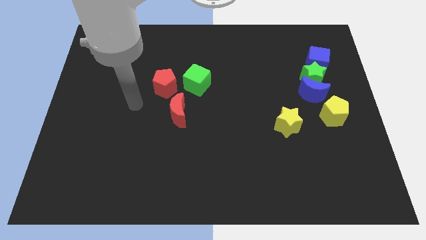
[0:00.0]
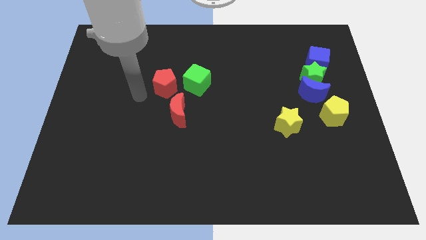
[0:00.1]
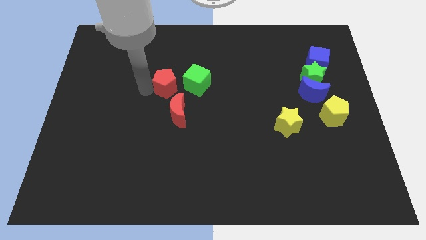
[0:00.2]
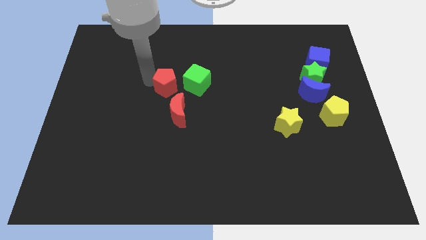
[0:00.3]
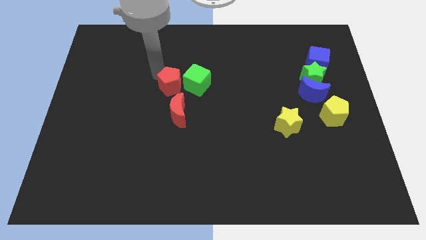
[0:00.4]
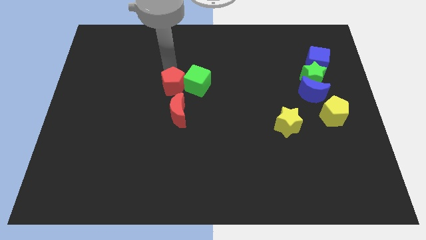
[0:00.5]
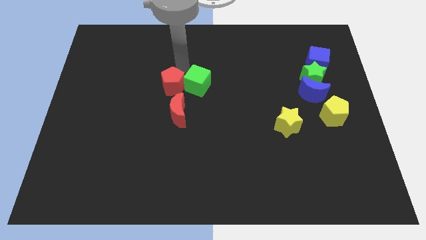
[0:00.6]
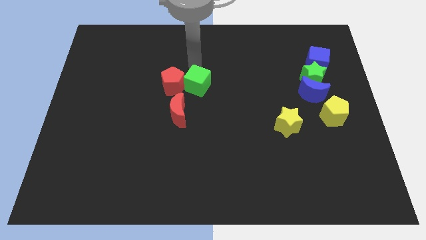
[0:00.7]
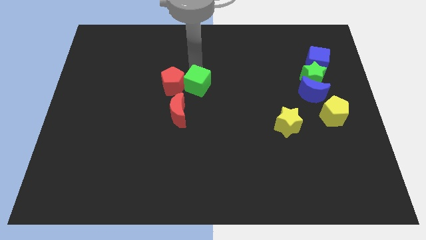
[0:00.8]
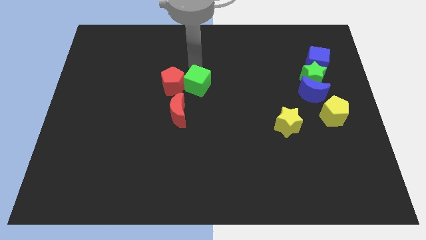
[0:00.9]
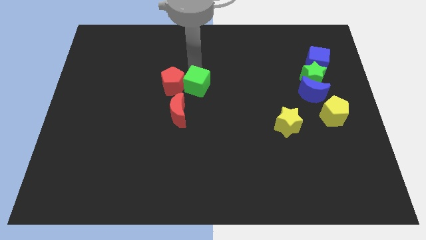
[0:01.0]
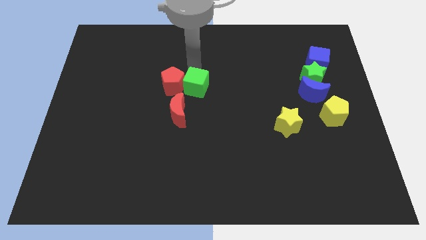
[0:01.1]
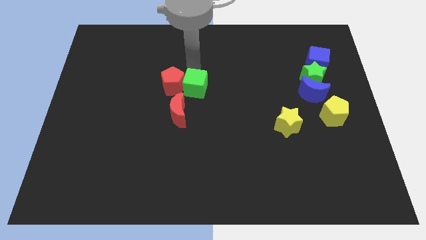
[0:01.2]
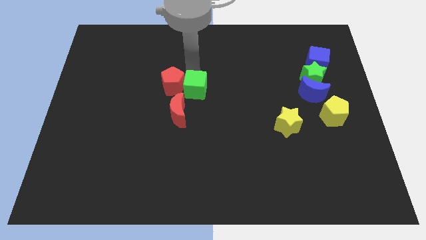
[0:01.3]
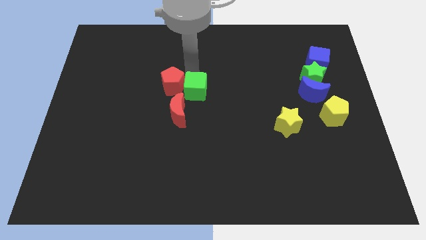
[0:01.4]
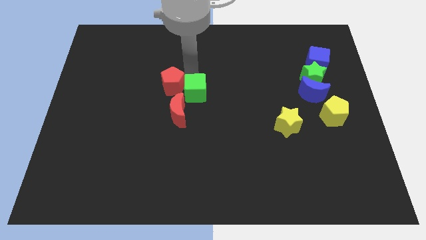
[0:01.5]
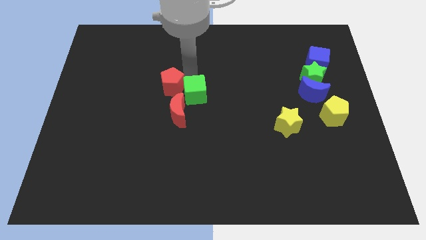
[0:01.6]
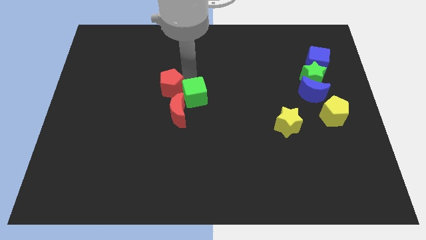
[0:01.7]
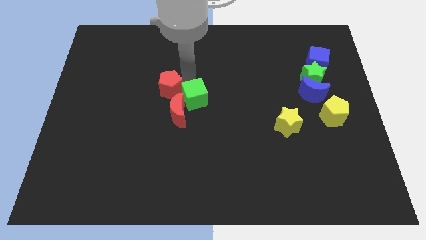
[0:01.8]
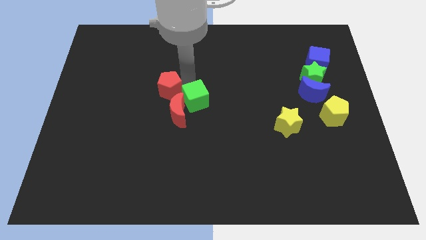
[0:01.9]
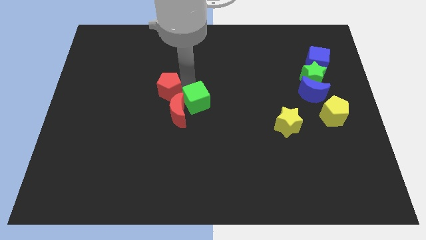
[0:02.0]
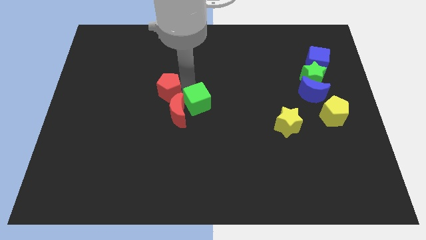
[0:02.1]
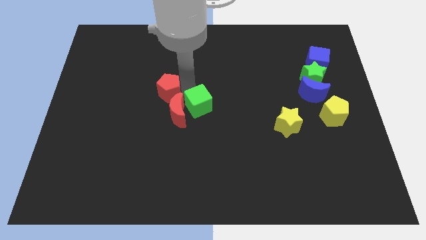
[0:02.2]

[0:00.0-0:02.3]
push the green cube a little down

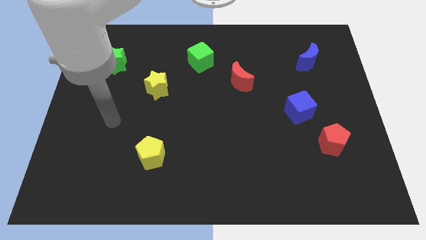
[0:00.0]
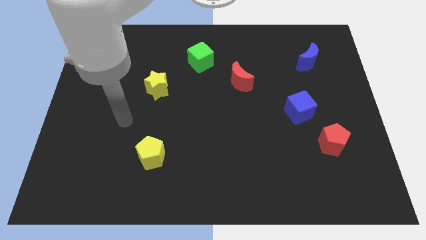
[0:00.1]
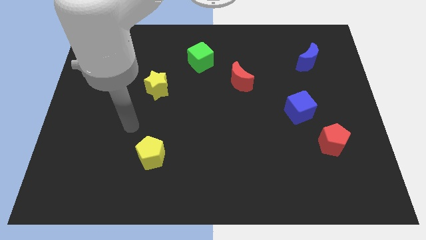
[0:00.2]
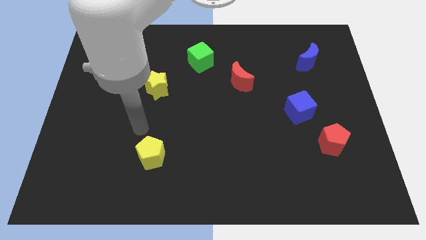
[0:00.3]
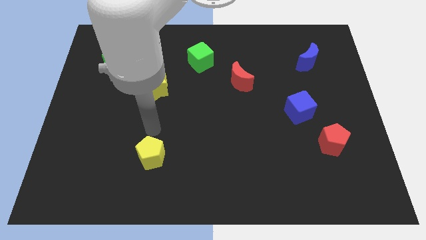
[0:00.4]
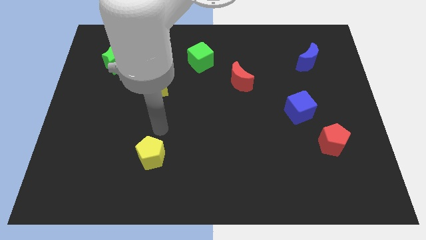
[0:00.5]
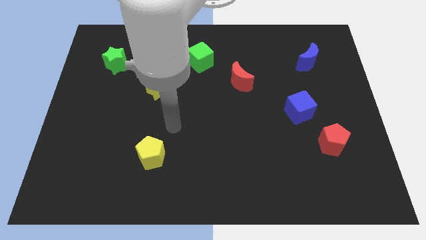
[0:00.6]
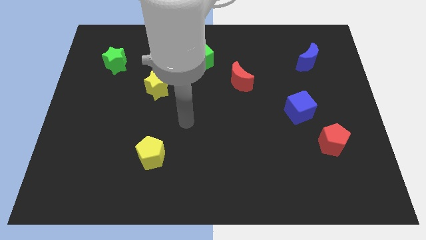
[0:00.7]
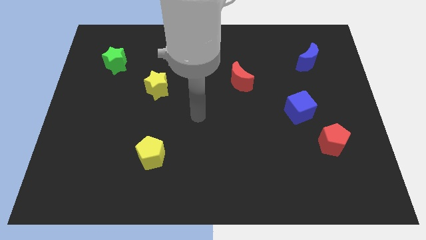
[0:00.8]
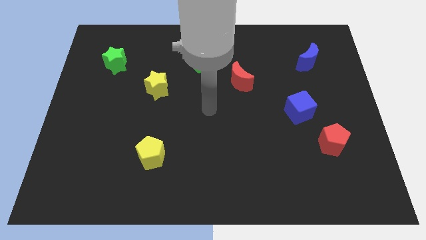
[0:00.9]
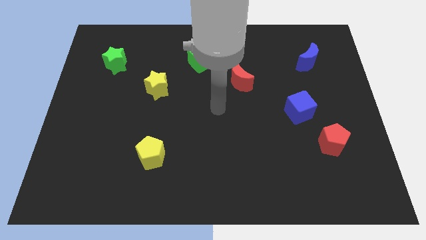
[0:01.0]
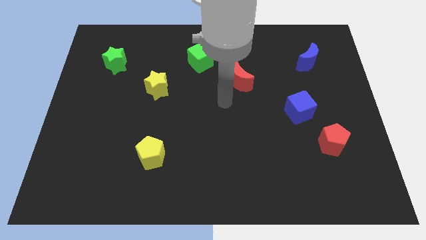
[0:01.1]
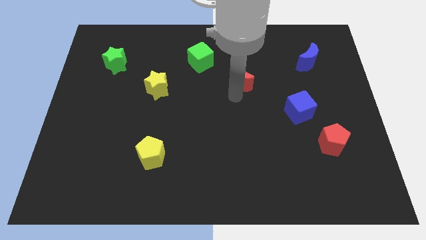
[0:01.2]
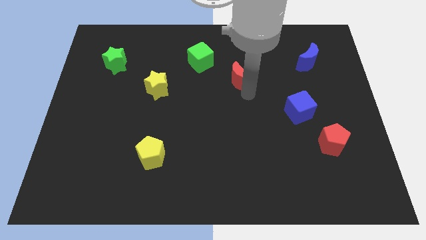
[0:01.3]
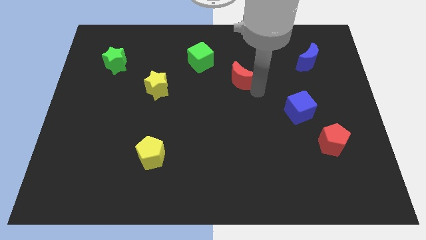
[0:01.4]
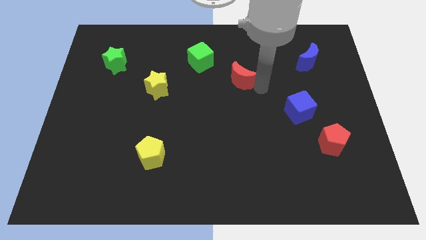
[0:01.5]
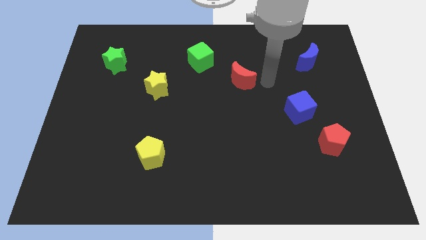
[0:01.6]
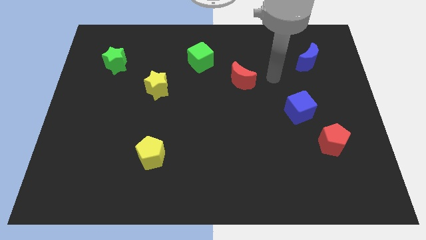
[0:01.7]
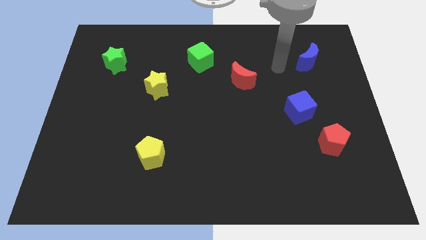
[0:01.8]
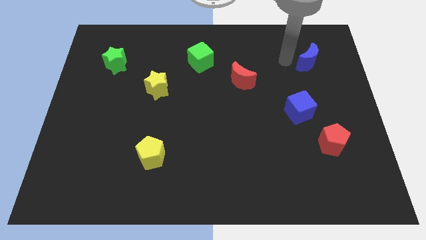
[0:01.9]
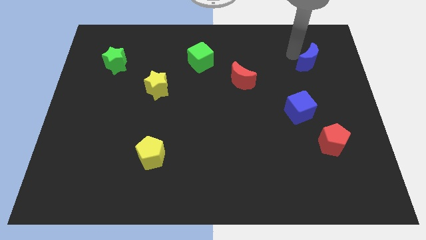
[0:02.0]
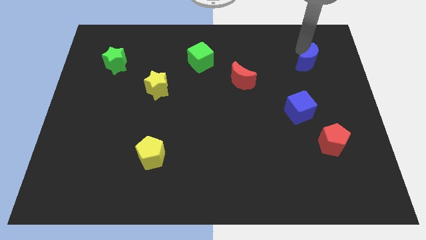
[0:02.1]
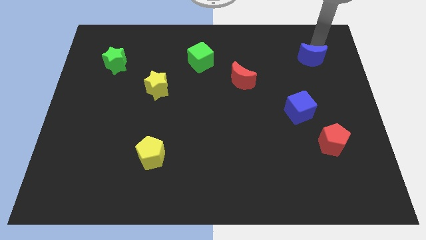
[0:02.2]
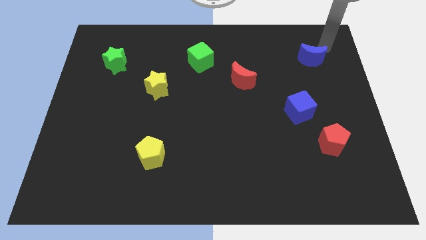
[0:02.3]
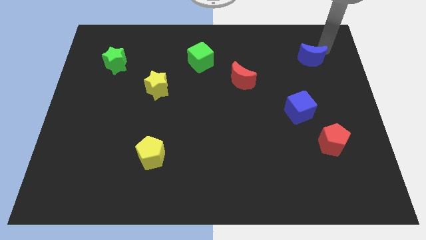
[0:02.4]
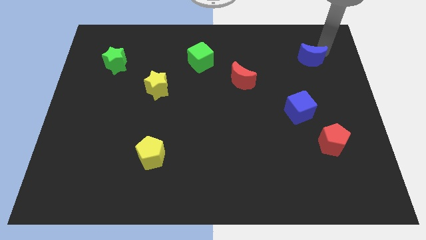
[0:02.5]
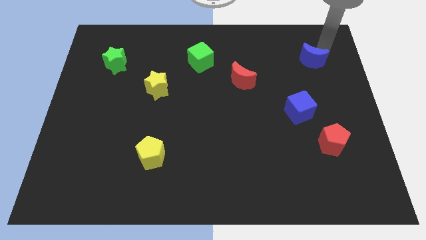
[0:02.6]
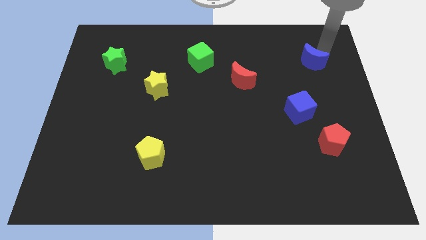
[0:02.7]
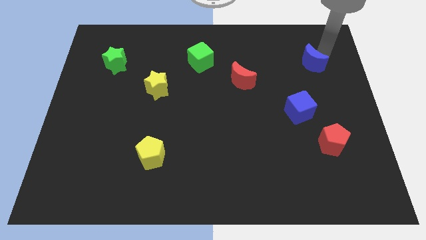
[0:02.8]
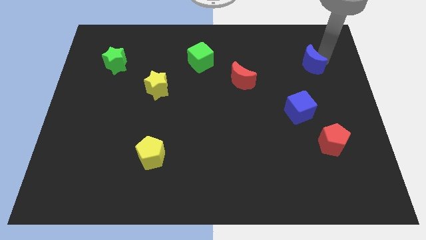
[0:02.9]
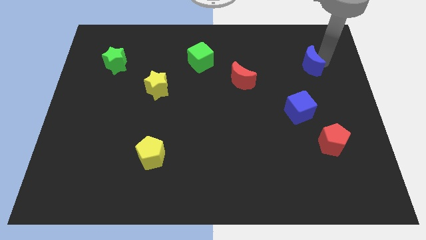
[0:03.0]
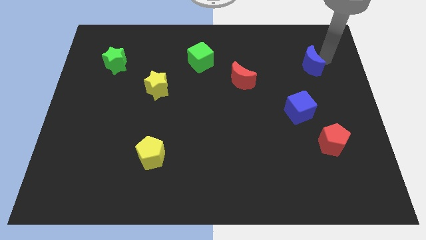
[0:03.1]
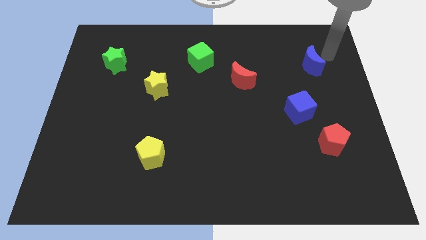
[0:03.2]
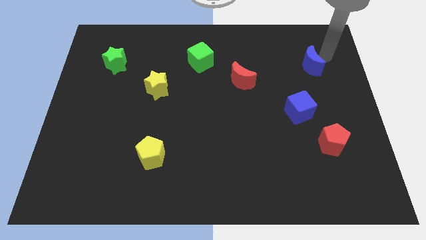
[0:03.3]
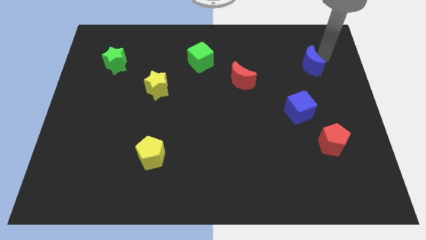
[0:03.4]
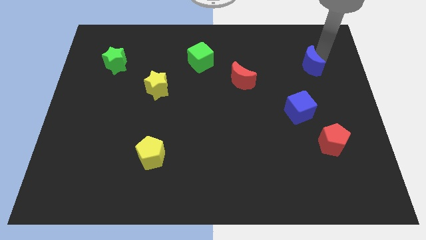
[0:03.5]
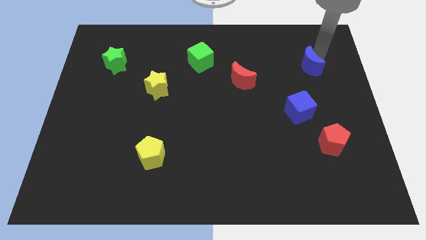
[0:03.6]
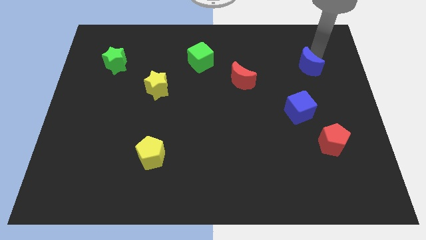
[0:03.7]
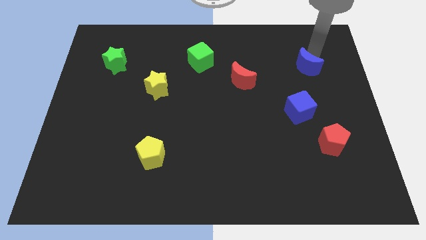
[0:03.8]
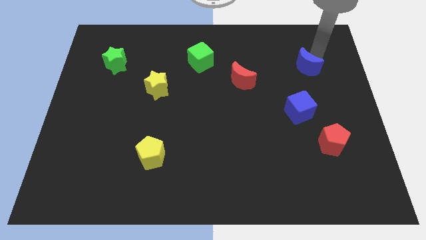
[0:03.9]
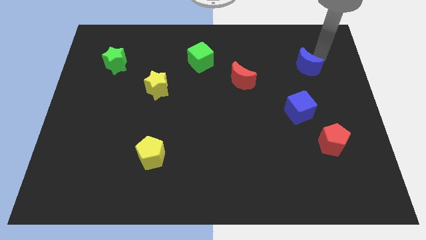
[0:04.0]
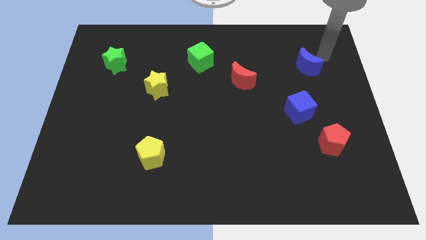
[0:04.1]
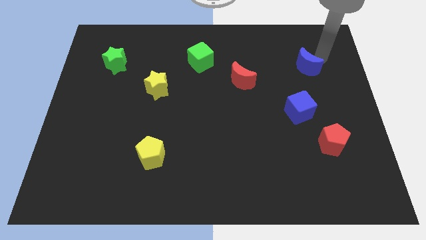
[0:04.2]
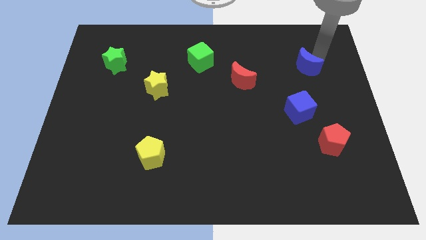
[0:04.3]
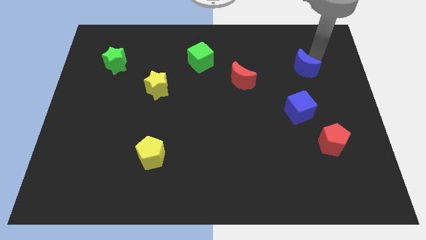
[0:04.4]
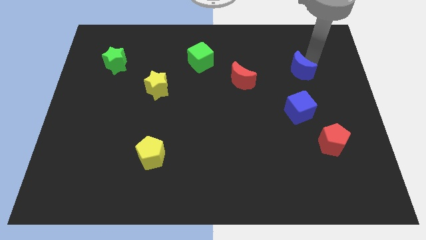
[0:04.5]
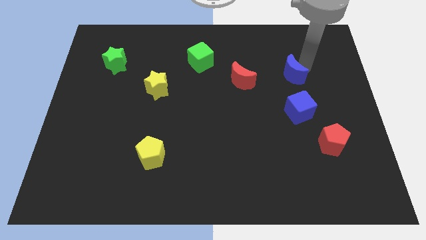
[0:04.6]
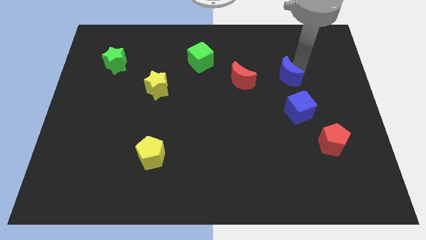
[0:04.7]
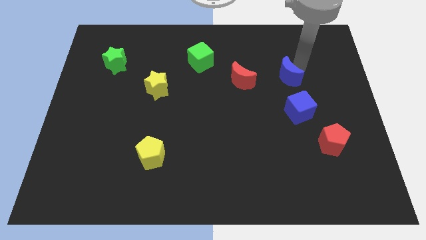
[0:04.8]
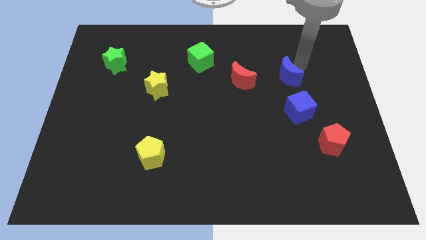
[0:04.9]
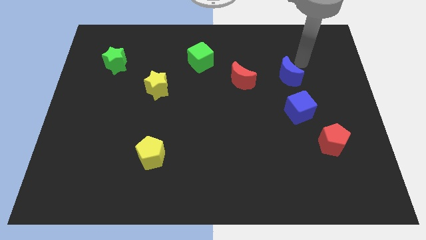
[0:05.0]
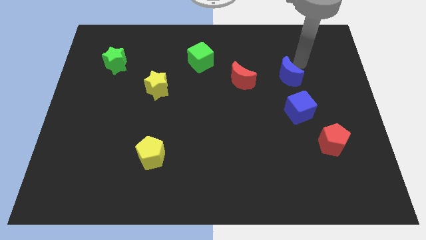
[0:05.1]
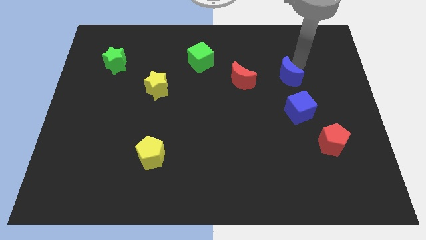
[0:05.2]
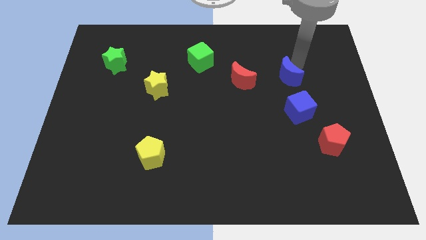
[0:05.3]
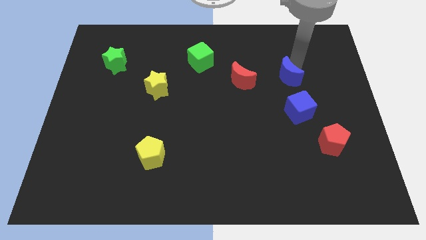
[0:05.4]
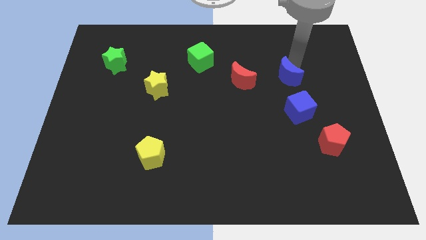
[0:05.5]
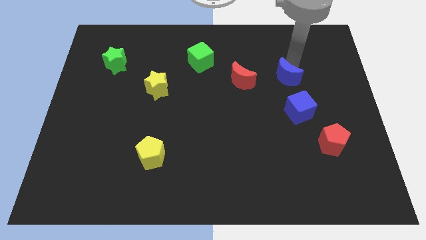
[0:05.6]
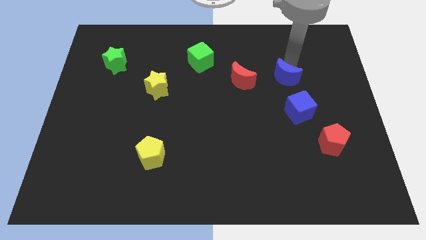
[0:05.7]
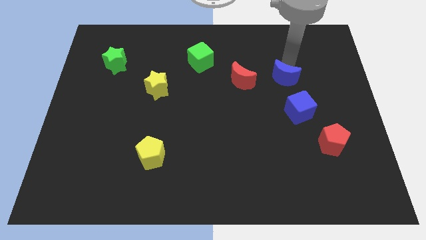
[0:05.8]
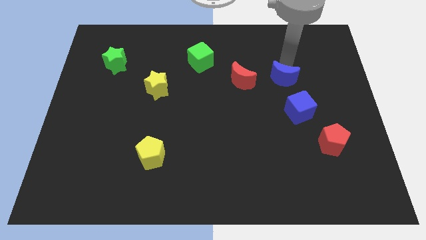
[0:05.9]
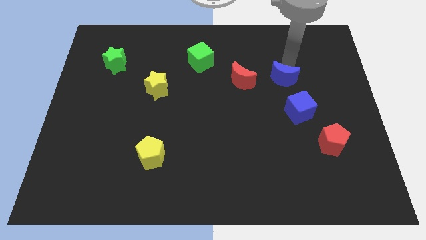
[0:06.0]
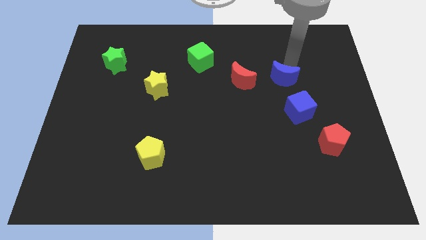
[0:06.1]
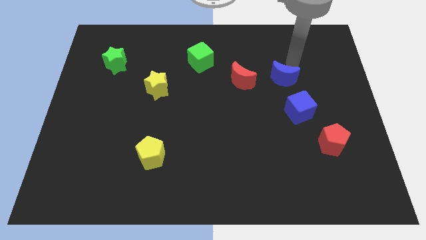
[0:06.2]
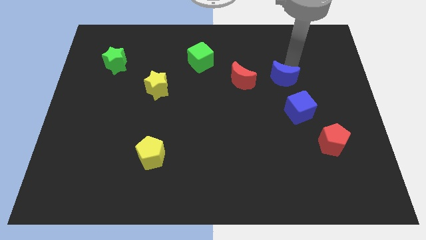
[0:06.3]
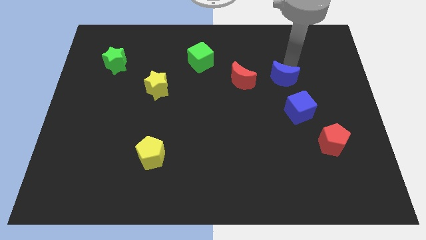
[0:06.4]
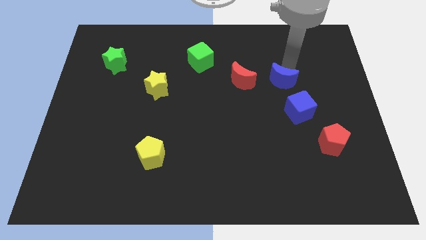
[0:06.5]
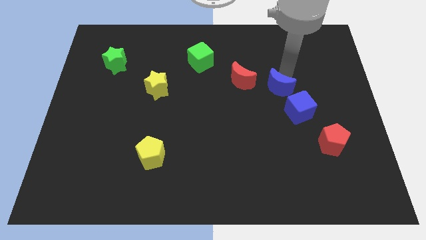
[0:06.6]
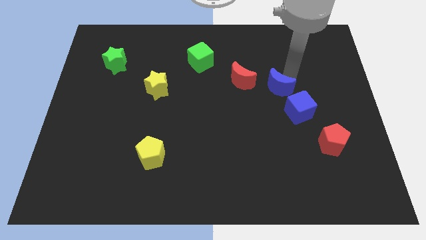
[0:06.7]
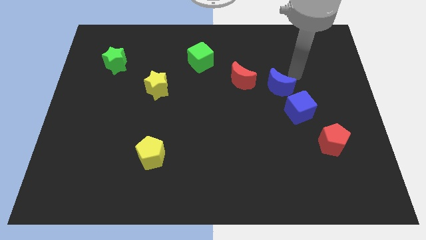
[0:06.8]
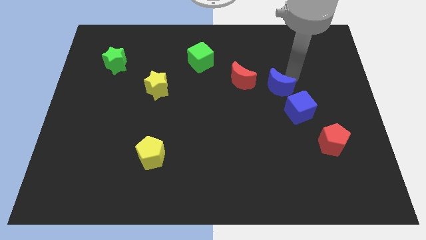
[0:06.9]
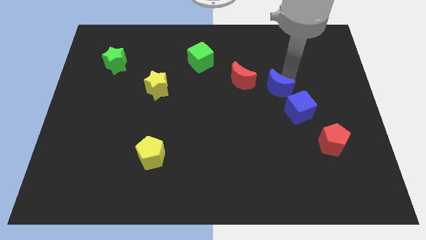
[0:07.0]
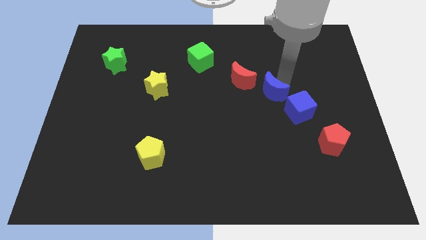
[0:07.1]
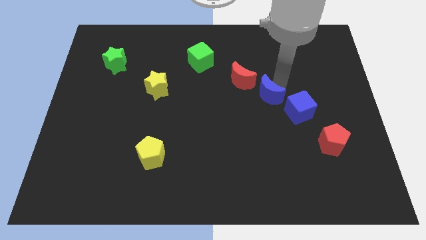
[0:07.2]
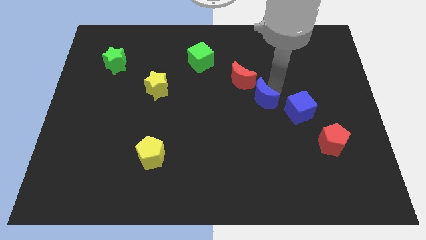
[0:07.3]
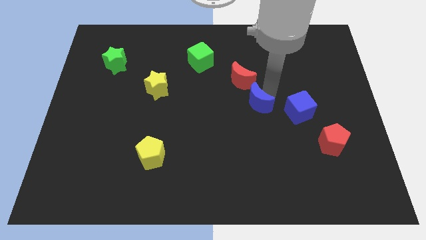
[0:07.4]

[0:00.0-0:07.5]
move the blue moon downwards and left
